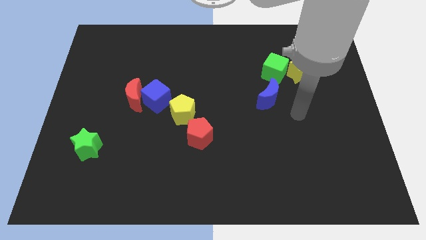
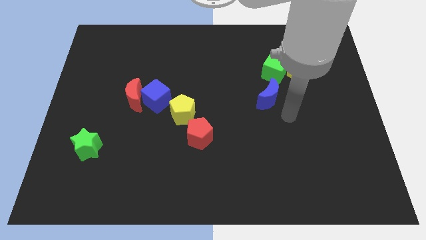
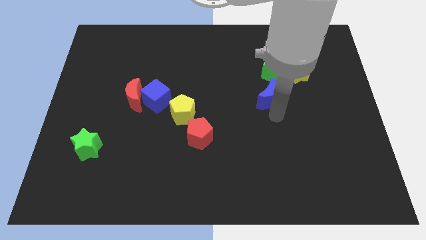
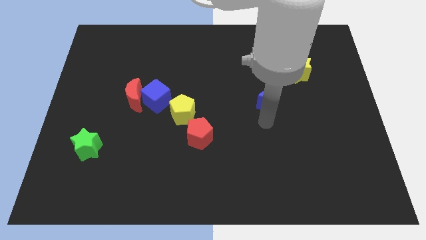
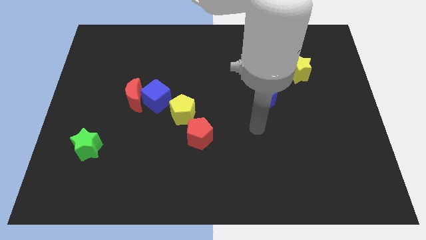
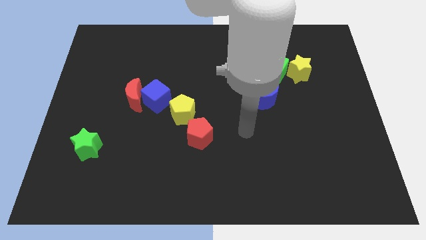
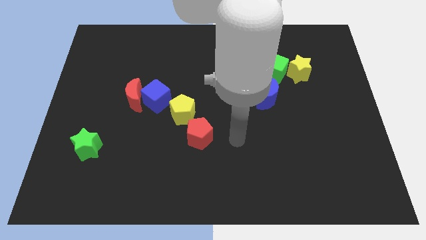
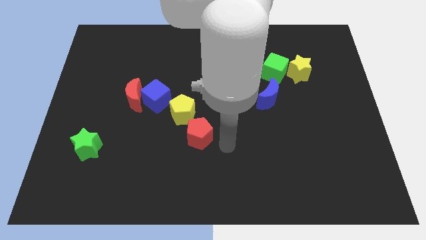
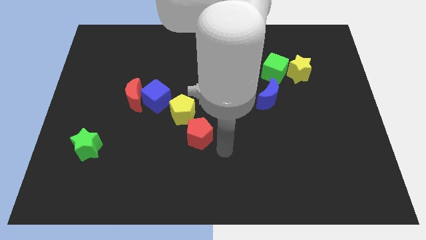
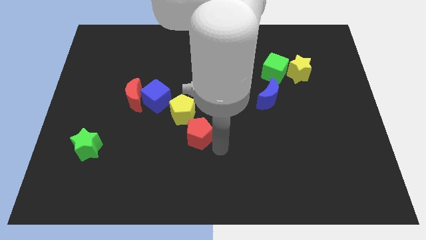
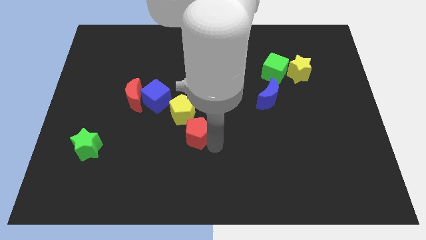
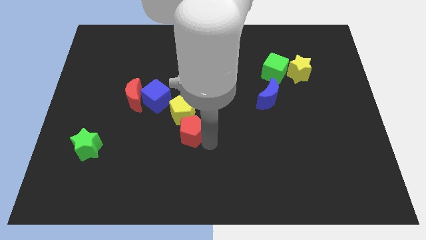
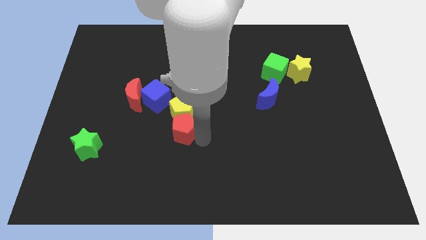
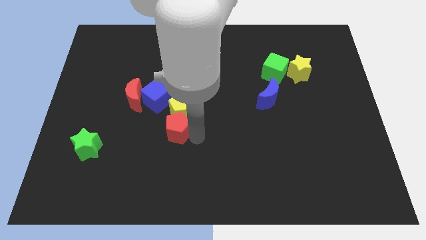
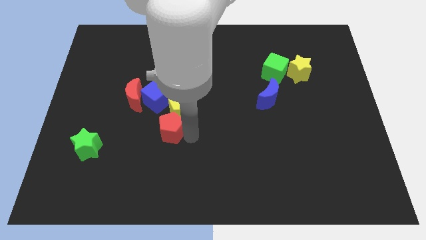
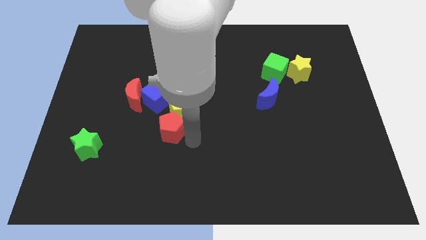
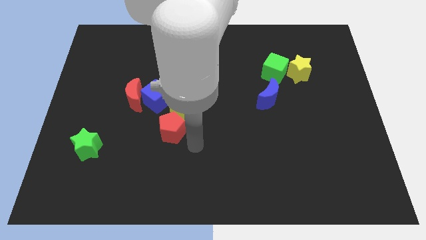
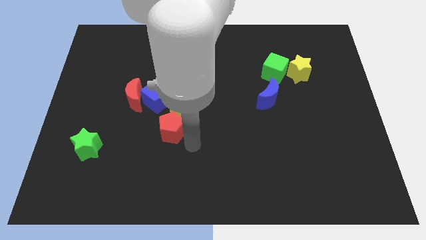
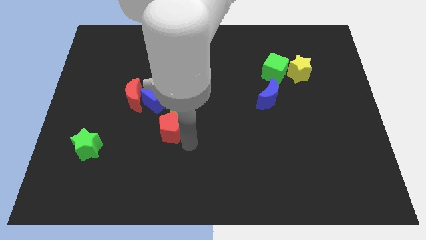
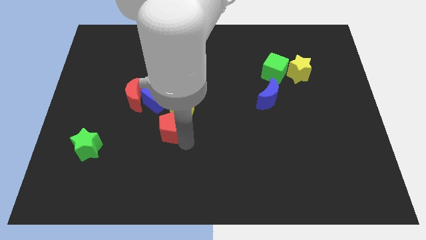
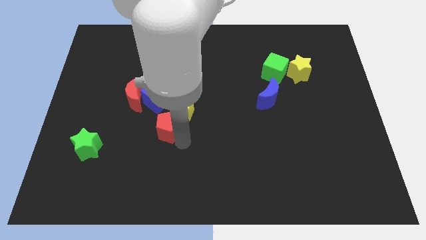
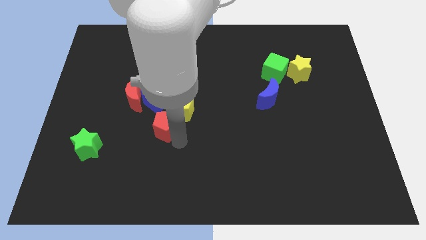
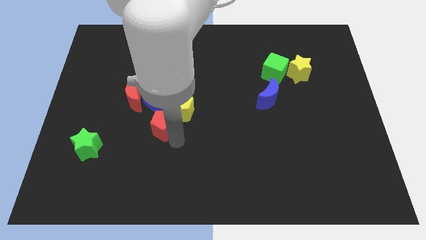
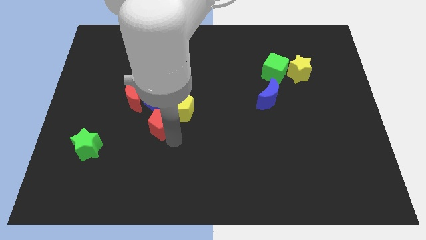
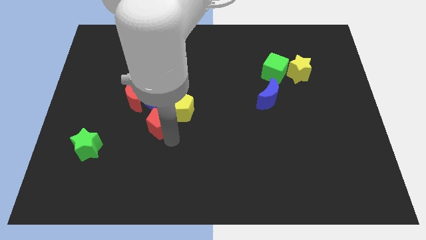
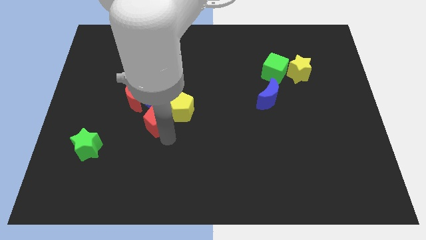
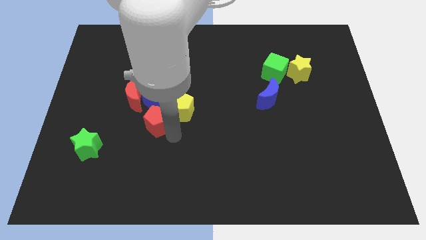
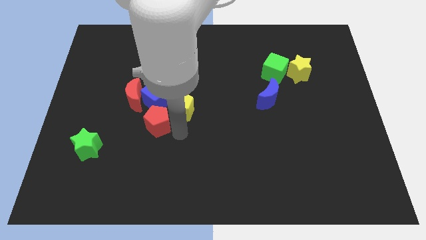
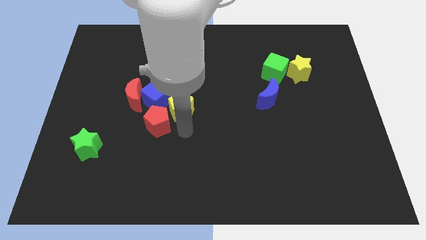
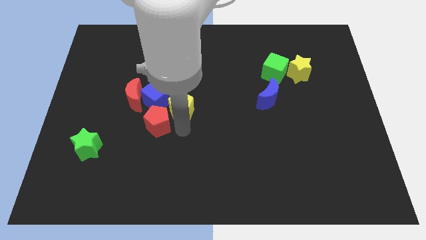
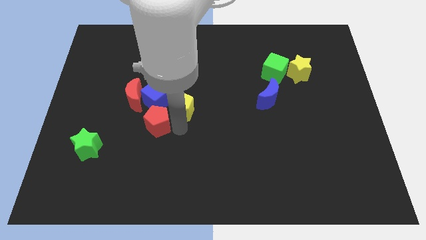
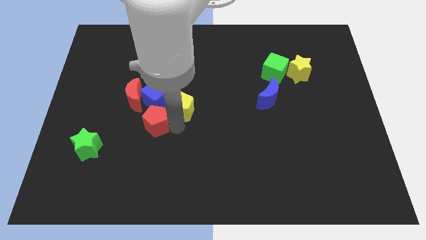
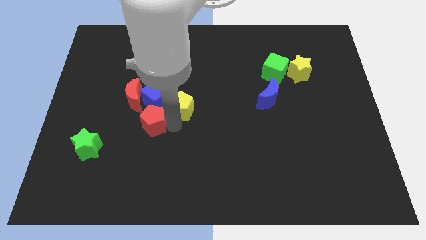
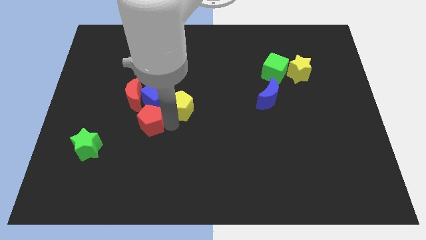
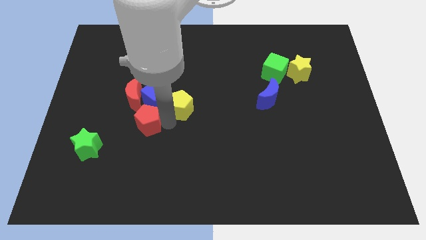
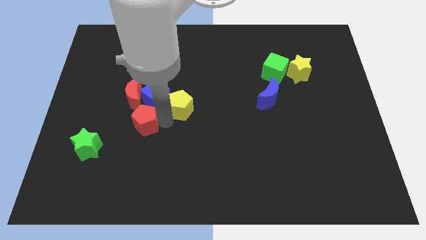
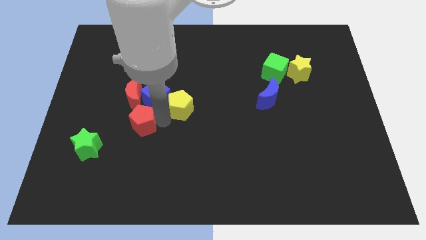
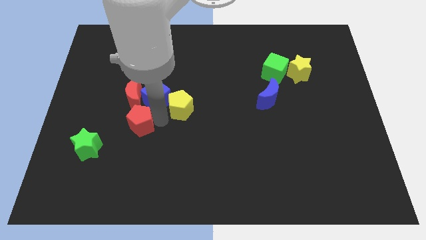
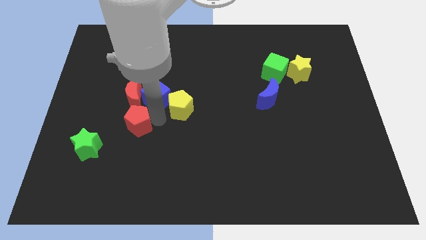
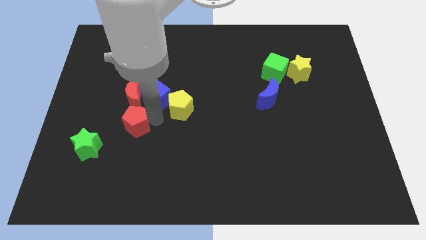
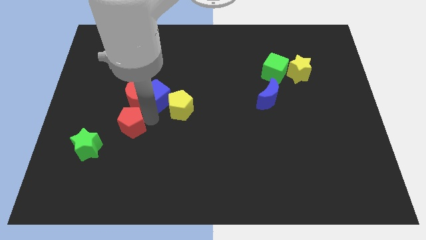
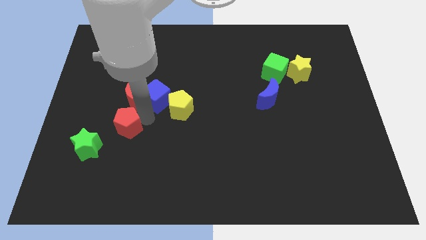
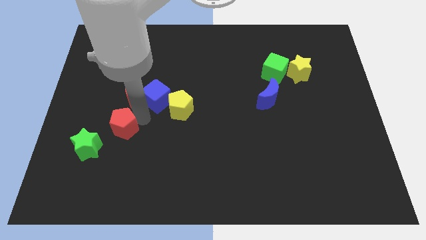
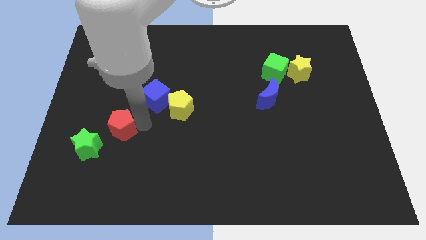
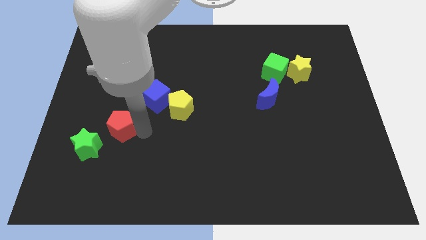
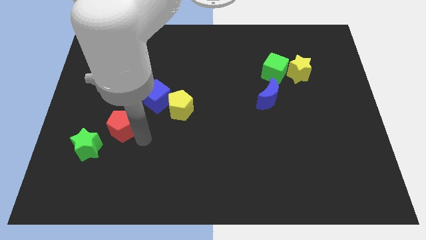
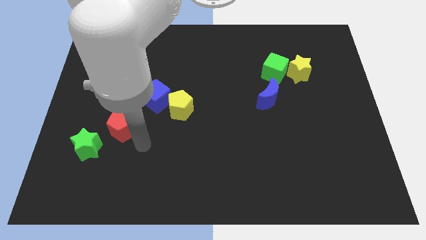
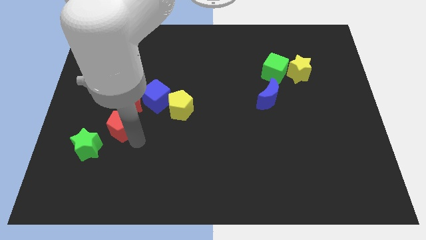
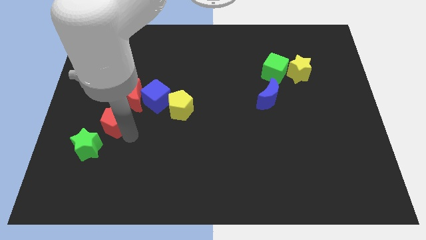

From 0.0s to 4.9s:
push the red pentagon above the green star

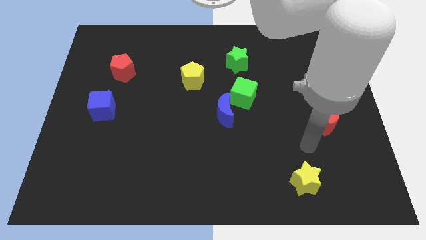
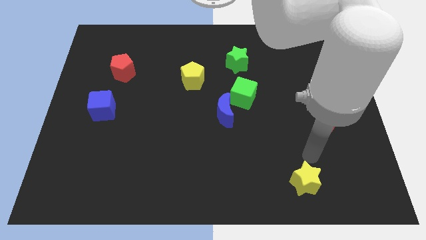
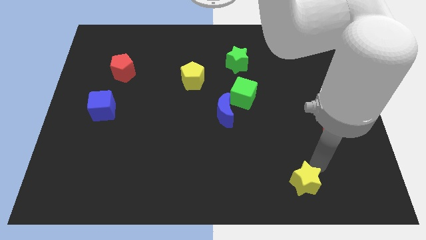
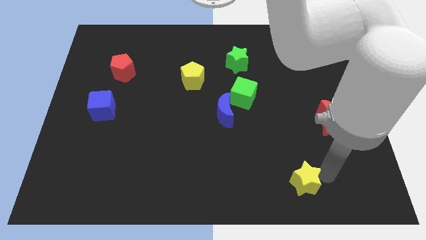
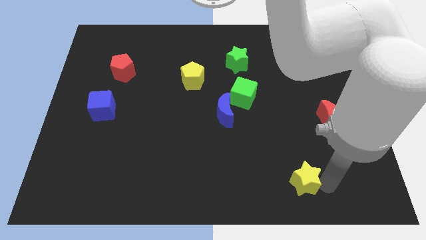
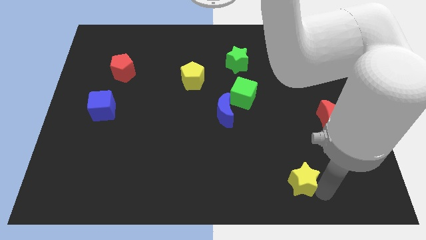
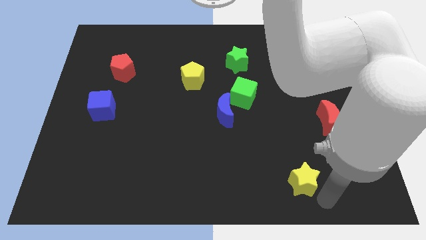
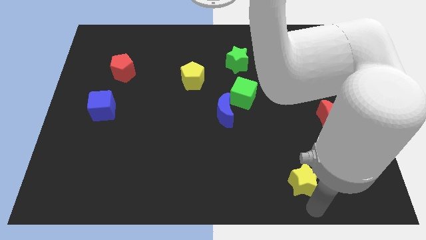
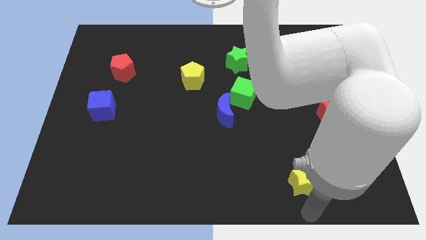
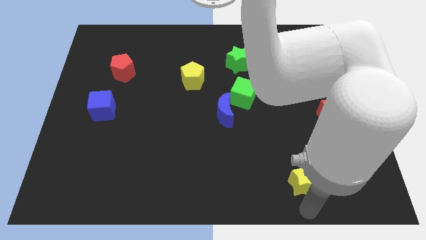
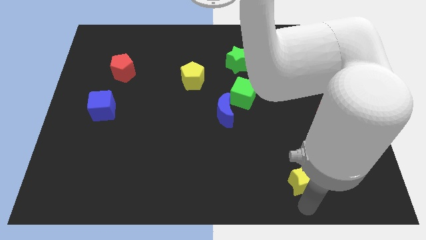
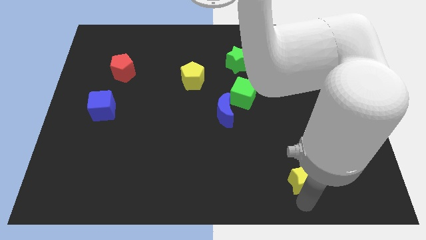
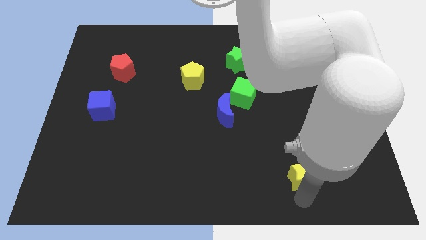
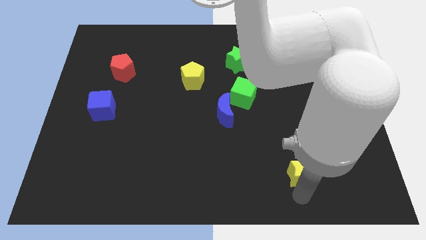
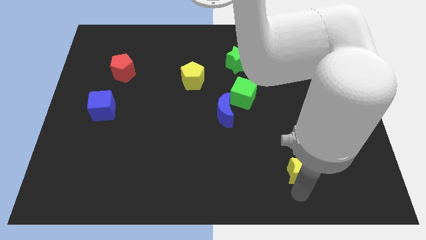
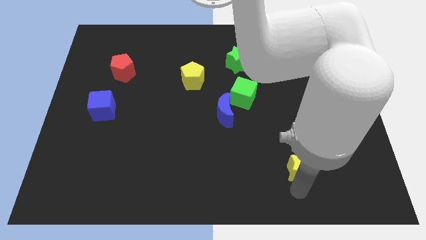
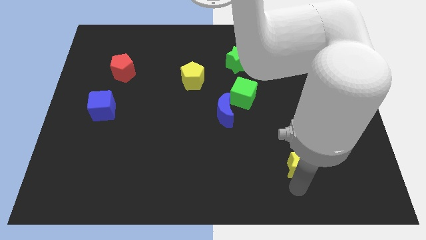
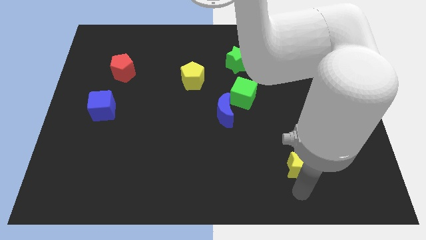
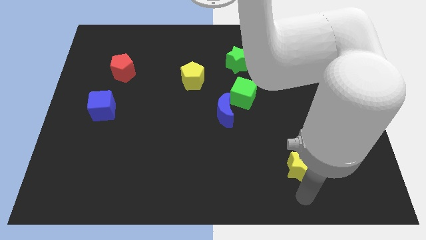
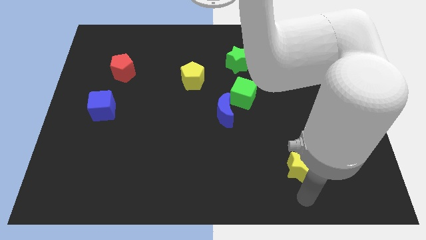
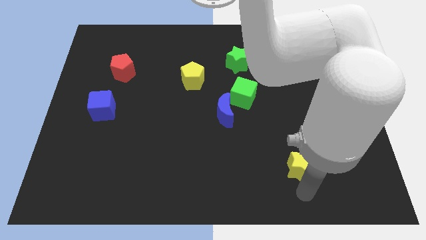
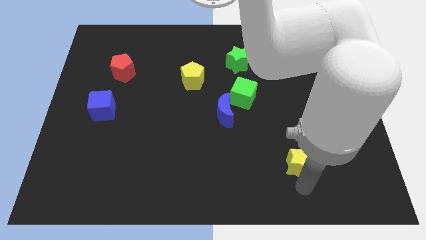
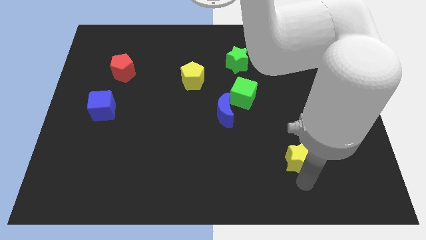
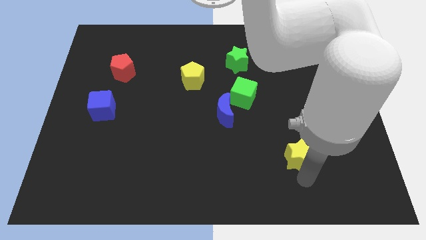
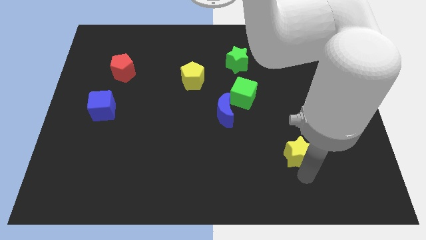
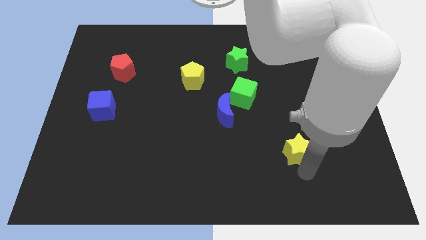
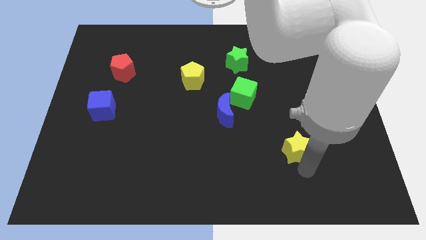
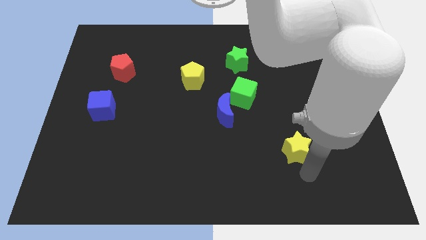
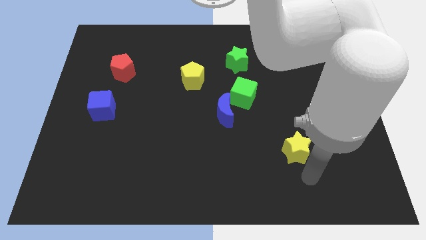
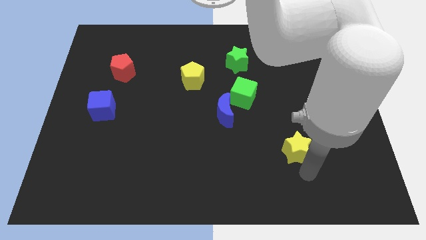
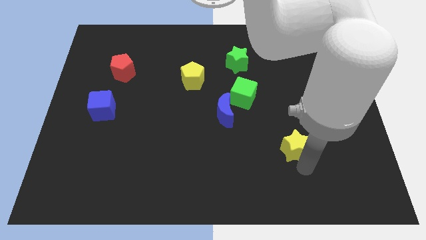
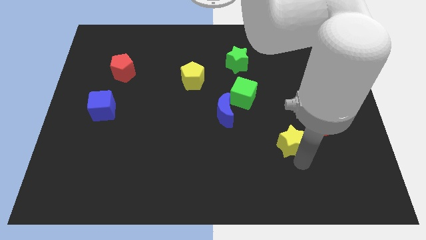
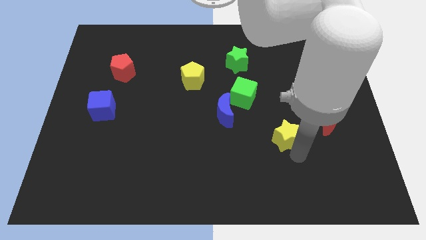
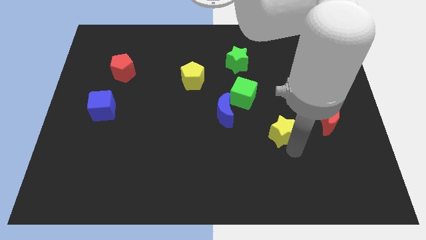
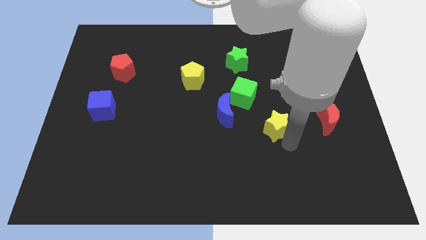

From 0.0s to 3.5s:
move the yellow star to the right side of the blue moon
